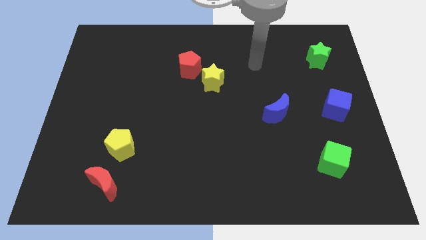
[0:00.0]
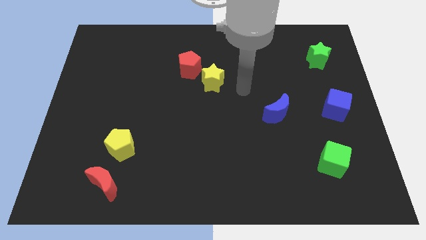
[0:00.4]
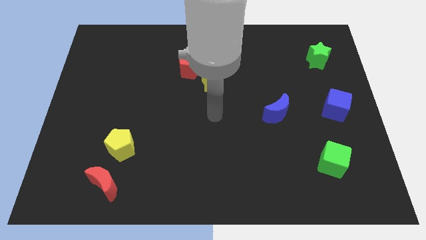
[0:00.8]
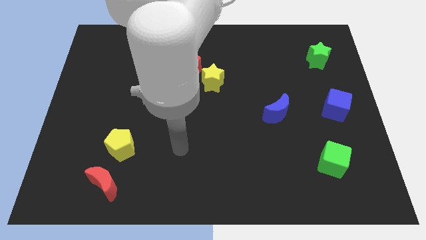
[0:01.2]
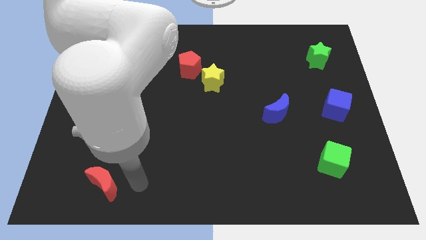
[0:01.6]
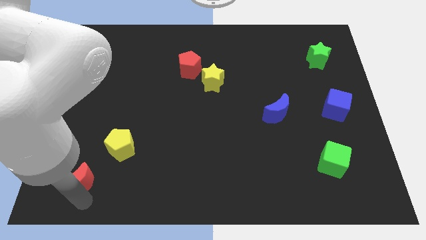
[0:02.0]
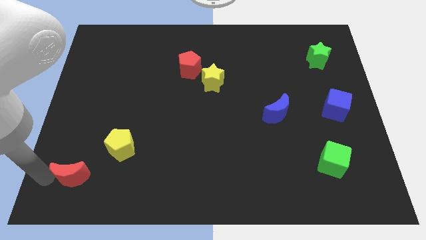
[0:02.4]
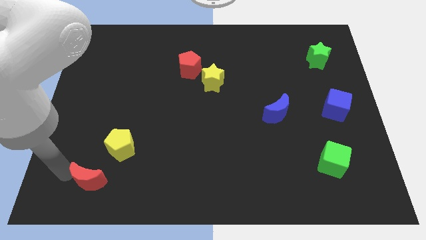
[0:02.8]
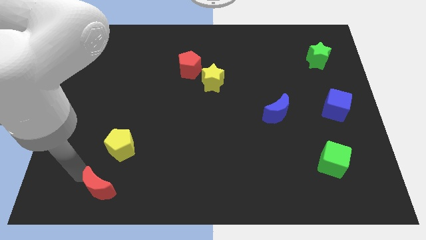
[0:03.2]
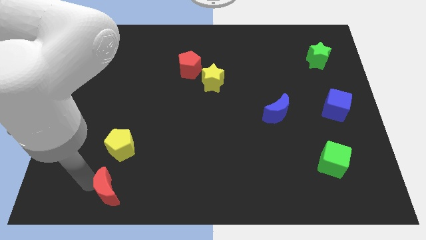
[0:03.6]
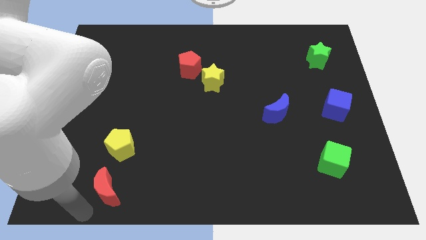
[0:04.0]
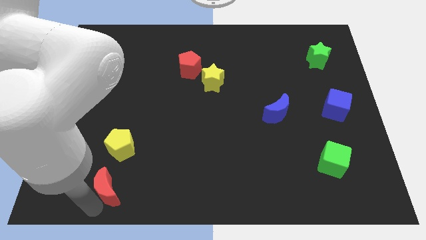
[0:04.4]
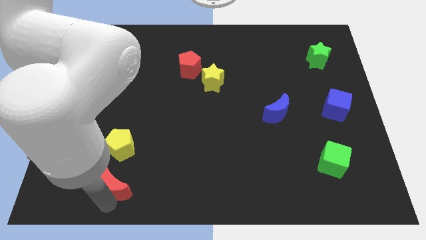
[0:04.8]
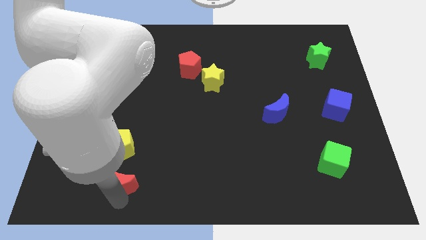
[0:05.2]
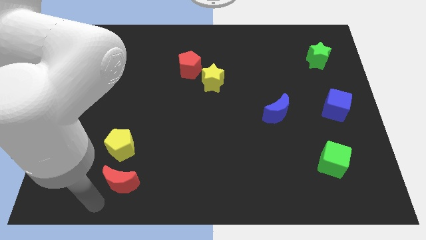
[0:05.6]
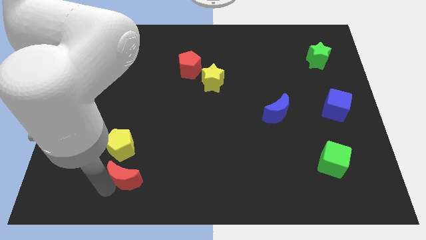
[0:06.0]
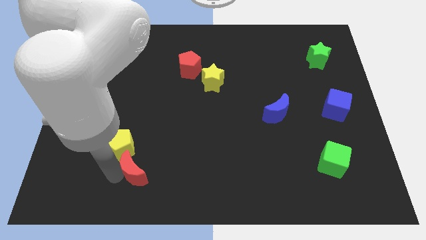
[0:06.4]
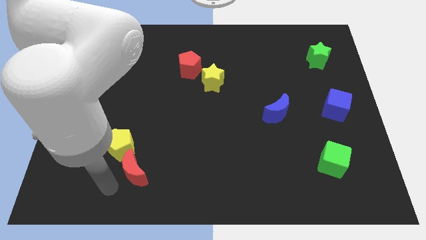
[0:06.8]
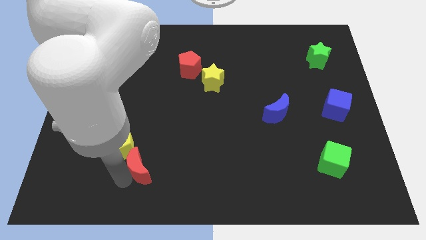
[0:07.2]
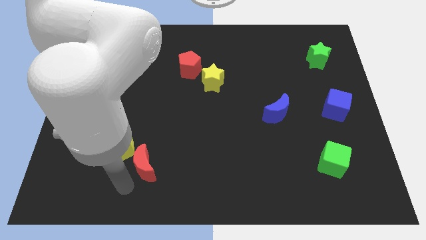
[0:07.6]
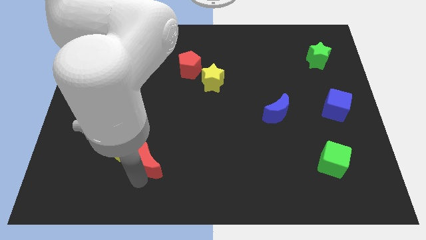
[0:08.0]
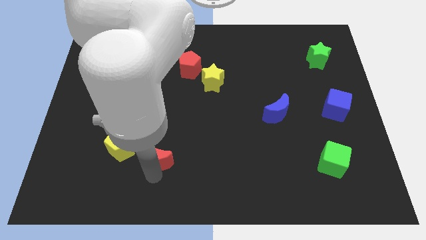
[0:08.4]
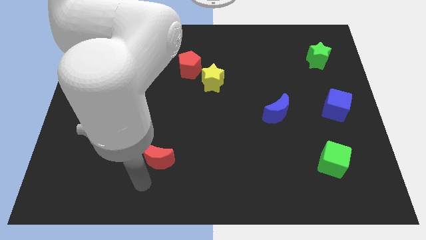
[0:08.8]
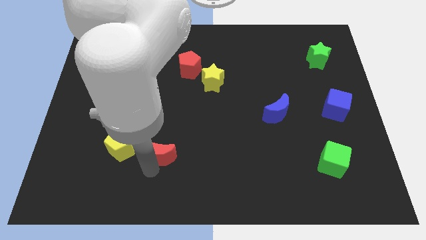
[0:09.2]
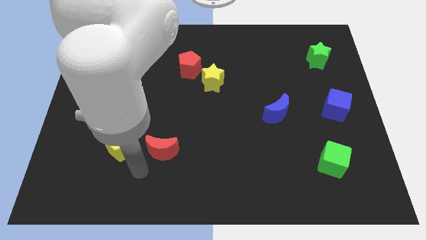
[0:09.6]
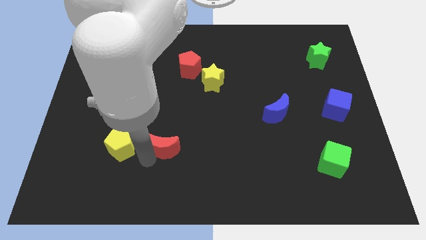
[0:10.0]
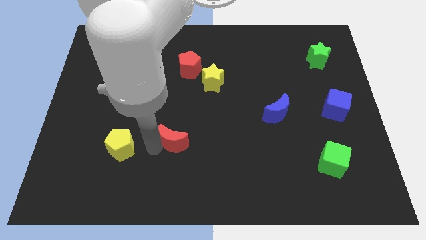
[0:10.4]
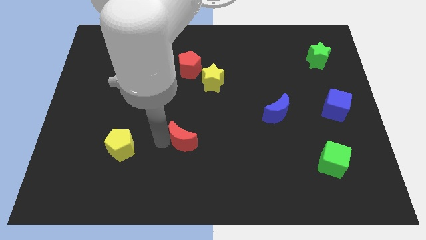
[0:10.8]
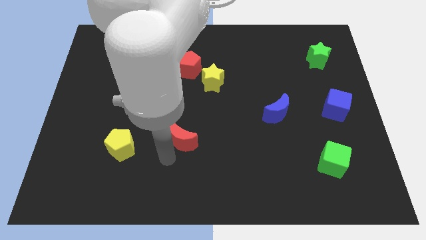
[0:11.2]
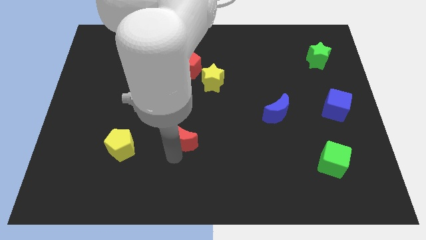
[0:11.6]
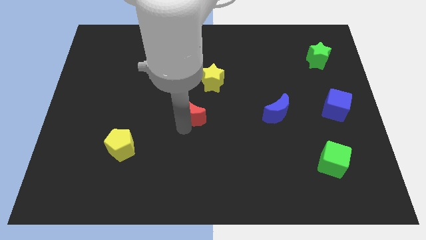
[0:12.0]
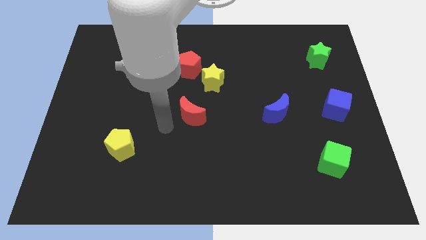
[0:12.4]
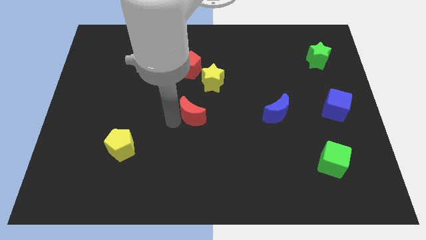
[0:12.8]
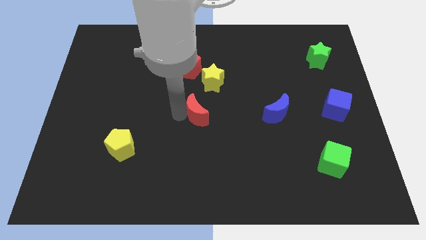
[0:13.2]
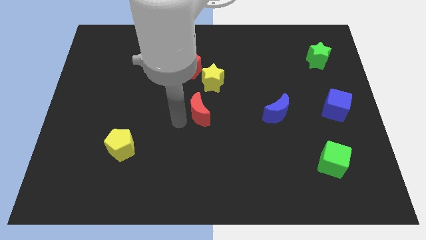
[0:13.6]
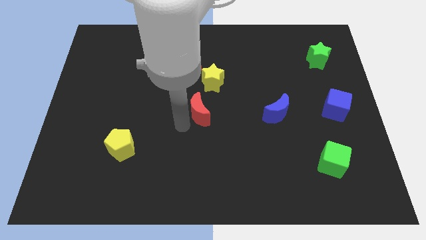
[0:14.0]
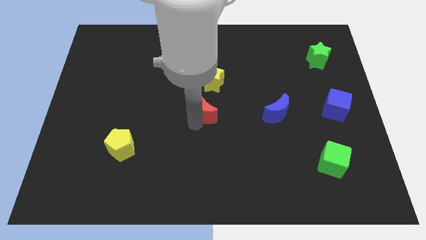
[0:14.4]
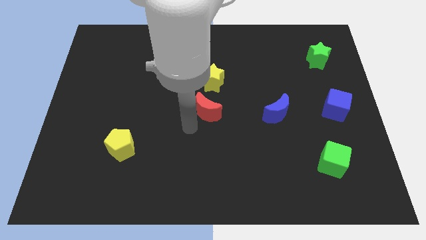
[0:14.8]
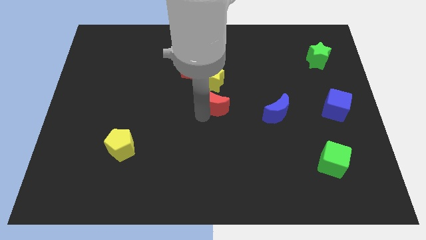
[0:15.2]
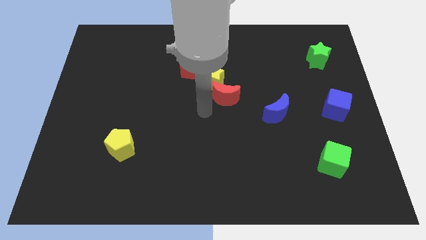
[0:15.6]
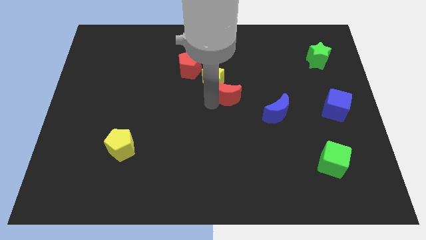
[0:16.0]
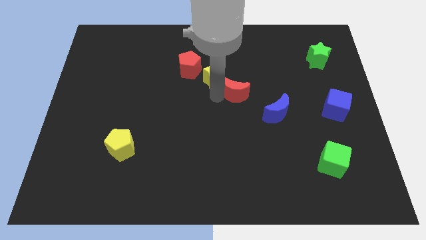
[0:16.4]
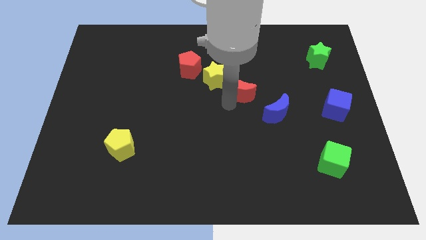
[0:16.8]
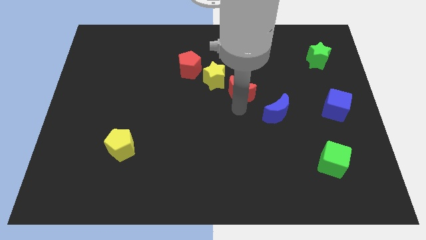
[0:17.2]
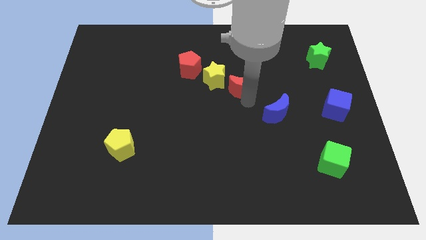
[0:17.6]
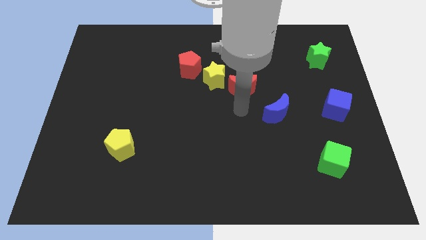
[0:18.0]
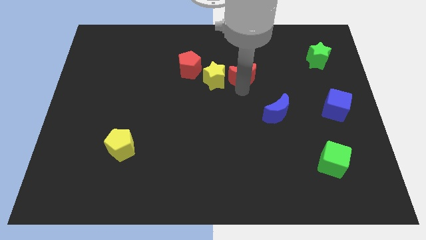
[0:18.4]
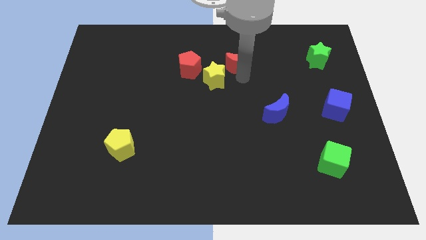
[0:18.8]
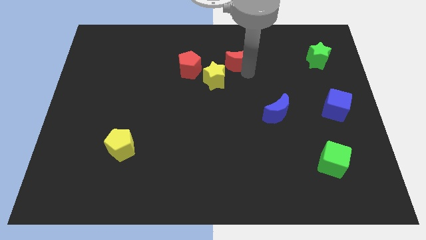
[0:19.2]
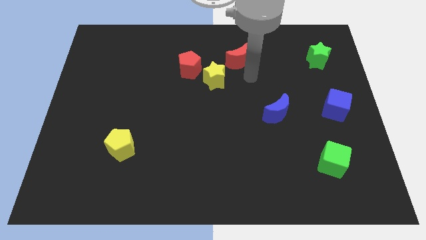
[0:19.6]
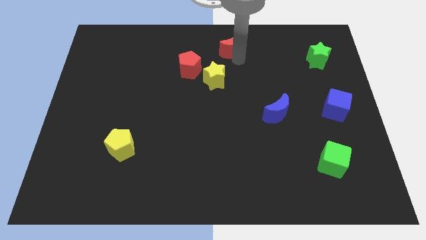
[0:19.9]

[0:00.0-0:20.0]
push the red moon to the towards your base

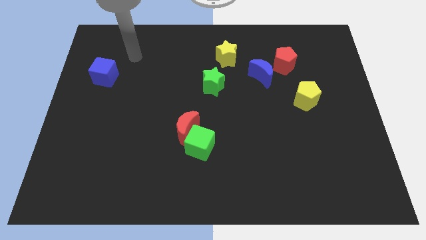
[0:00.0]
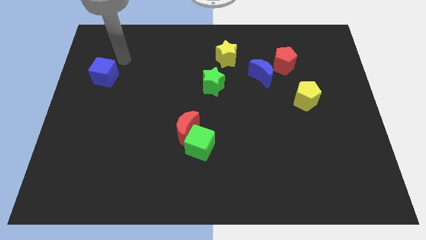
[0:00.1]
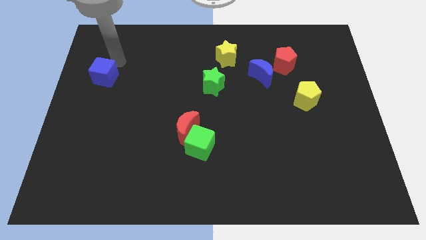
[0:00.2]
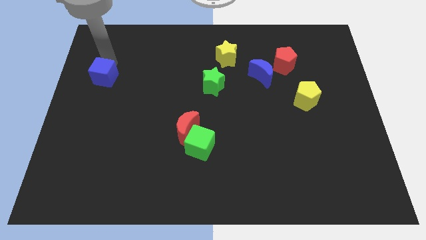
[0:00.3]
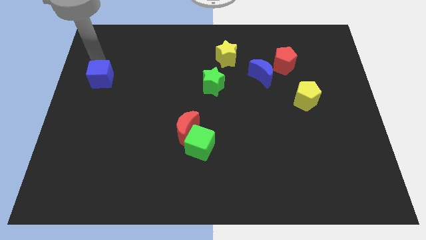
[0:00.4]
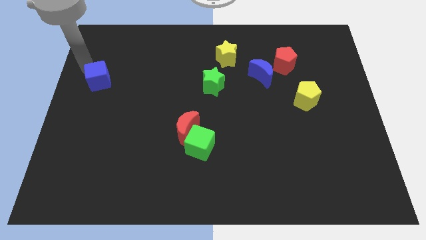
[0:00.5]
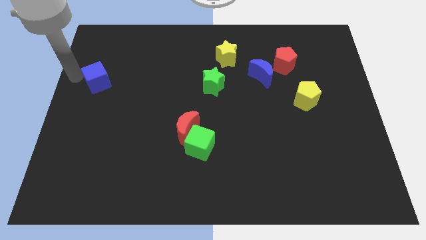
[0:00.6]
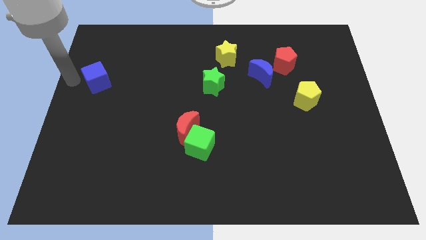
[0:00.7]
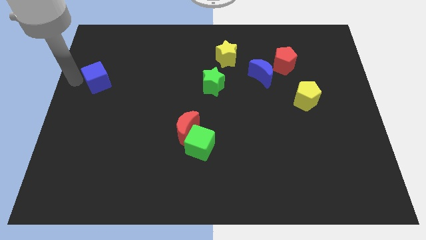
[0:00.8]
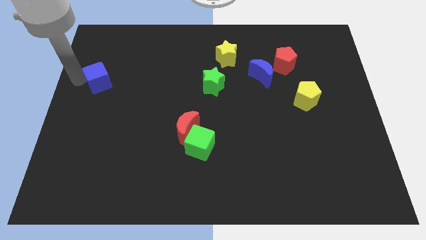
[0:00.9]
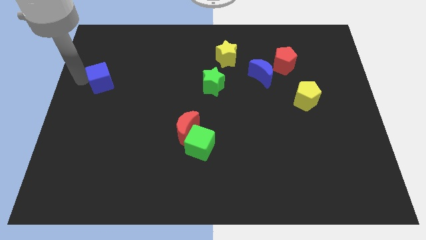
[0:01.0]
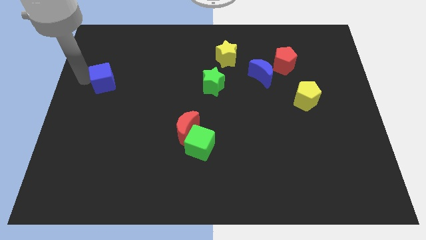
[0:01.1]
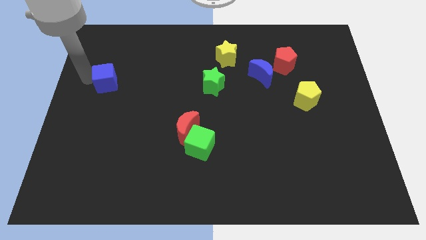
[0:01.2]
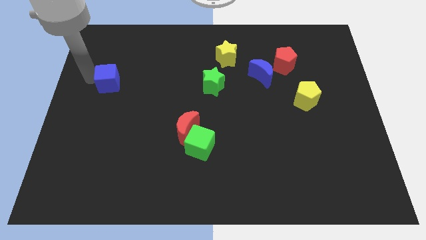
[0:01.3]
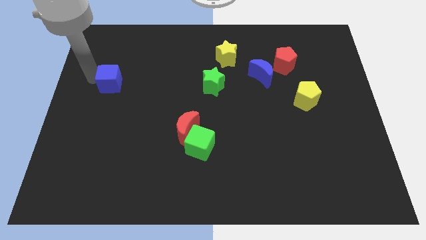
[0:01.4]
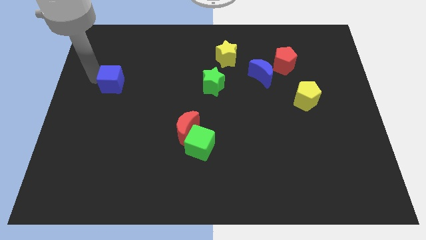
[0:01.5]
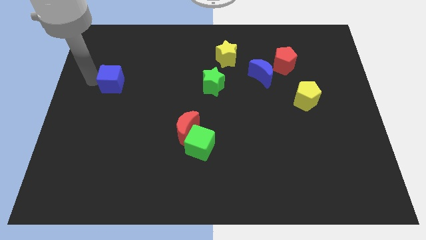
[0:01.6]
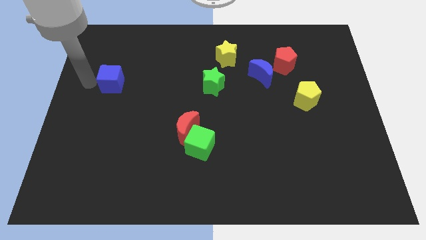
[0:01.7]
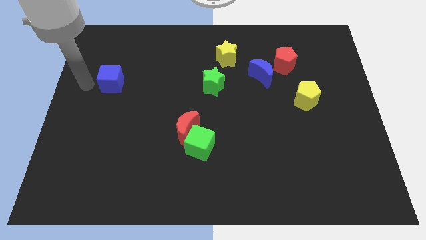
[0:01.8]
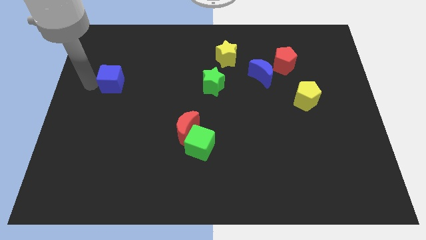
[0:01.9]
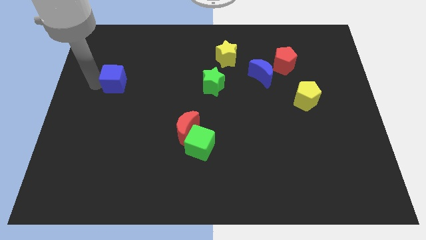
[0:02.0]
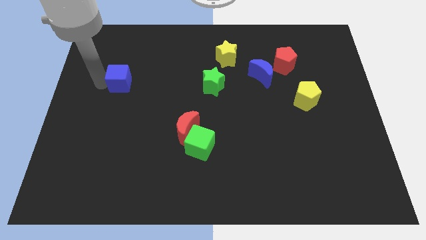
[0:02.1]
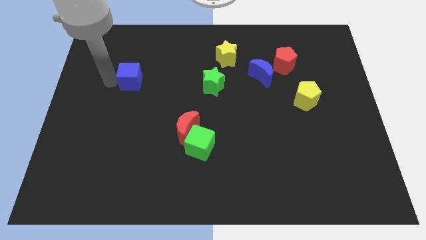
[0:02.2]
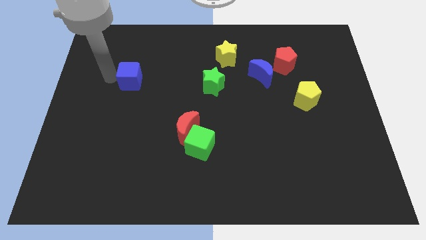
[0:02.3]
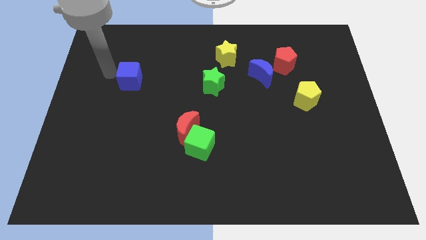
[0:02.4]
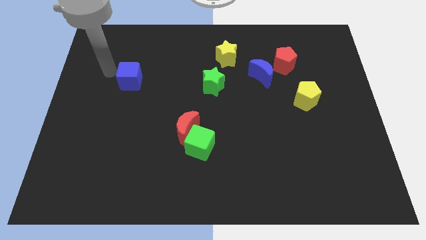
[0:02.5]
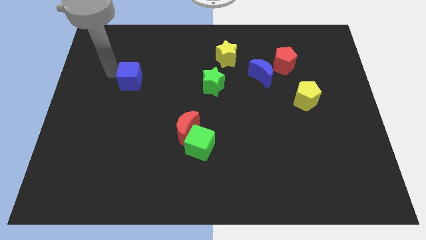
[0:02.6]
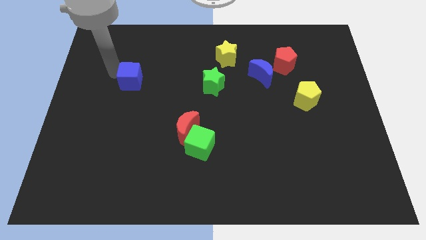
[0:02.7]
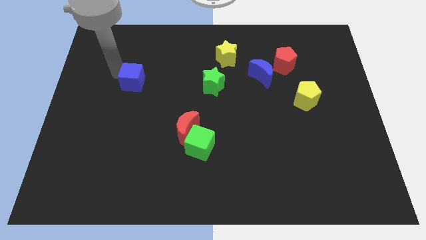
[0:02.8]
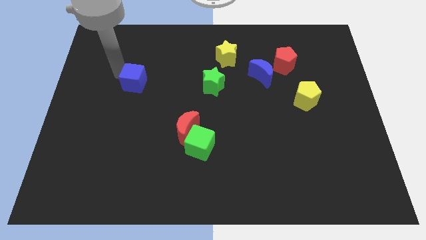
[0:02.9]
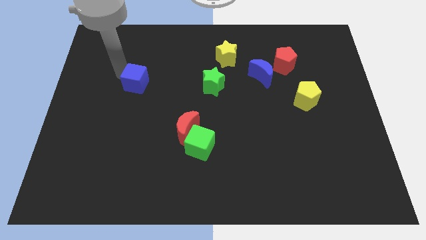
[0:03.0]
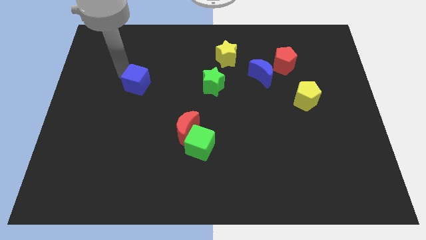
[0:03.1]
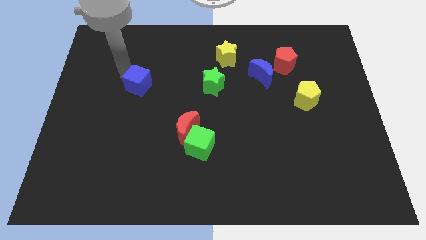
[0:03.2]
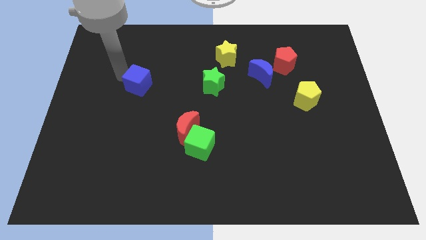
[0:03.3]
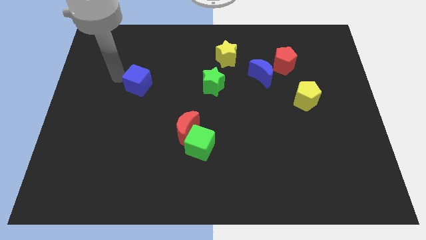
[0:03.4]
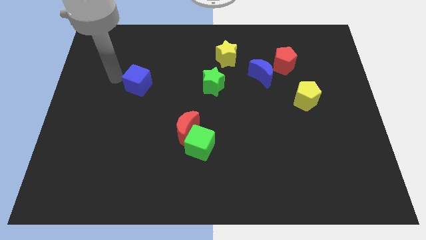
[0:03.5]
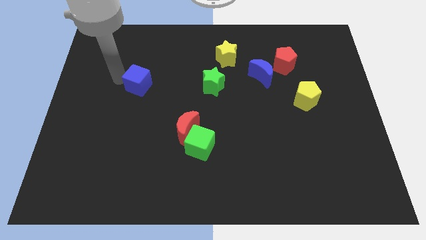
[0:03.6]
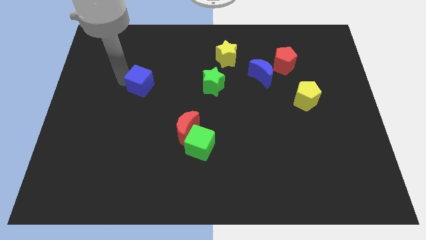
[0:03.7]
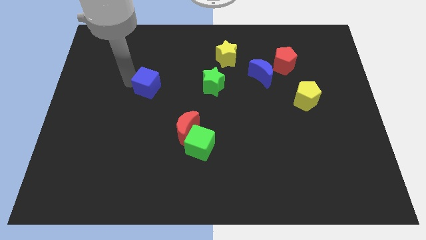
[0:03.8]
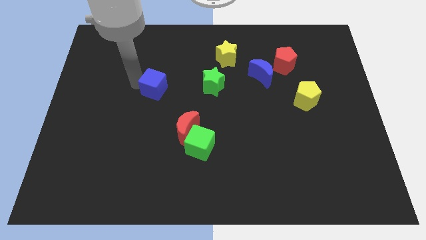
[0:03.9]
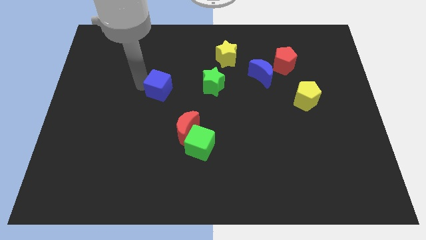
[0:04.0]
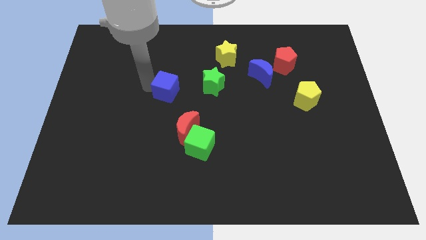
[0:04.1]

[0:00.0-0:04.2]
slide the blue cube to the center of the board
